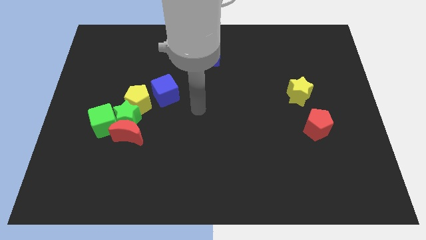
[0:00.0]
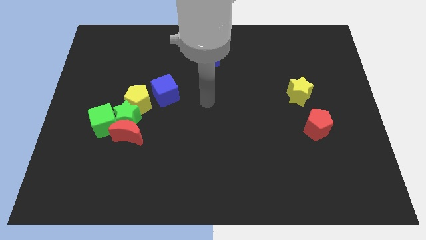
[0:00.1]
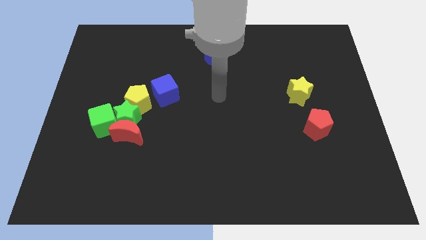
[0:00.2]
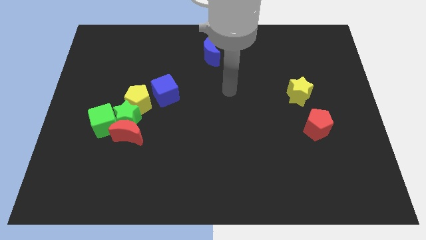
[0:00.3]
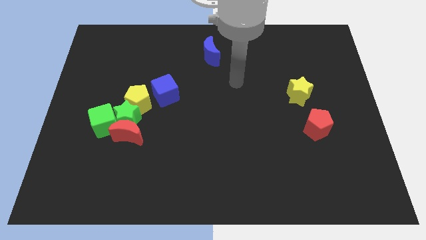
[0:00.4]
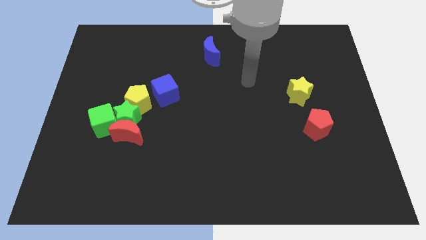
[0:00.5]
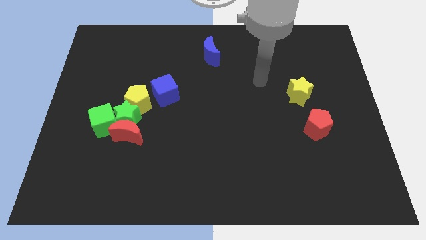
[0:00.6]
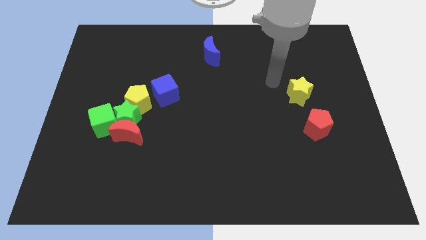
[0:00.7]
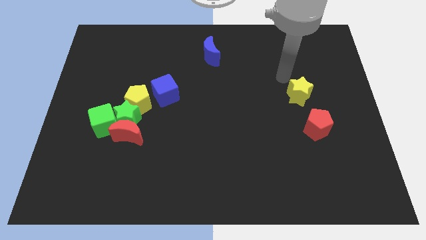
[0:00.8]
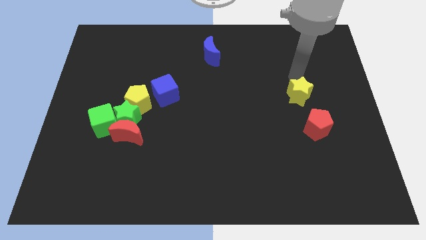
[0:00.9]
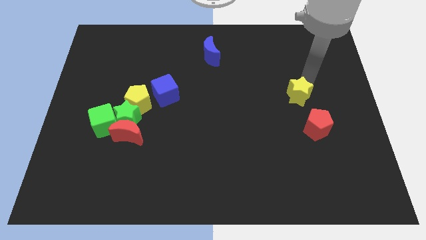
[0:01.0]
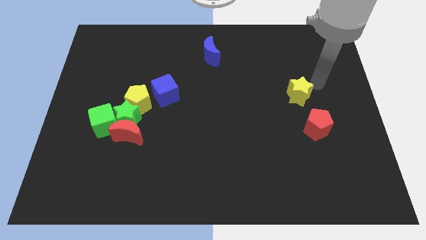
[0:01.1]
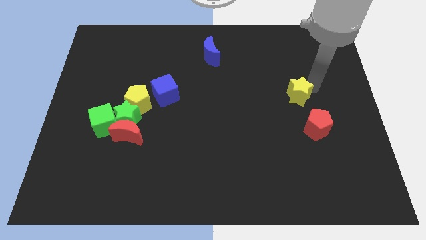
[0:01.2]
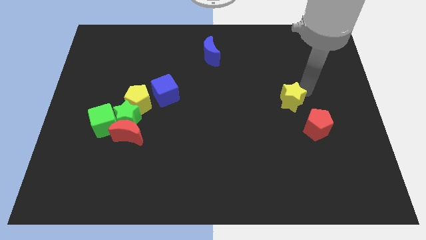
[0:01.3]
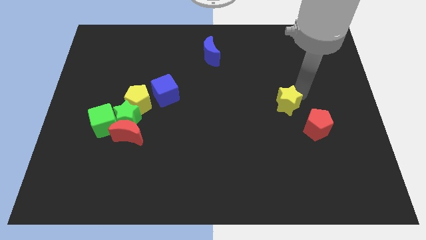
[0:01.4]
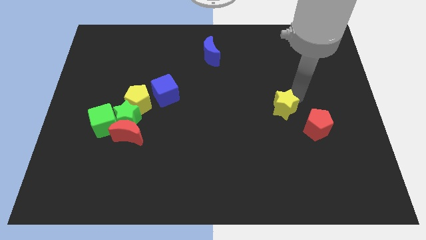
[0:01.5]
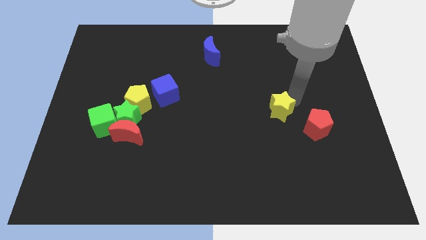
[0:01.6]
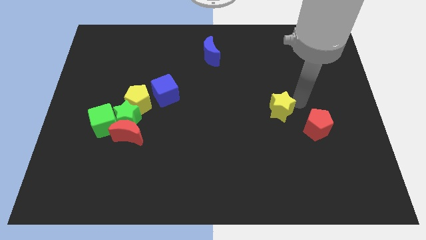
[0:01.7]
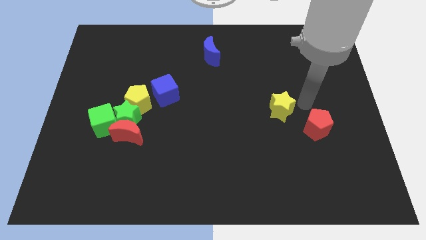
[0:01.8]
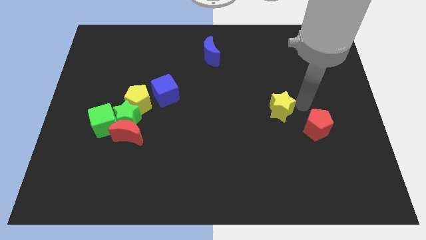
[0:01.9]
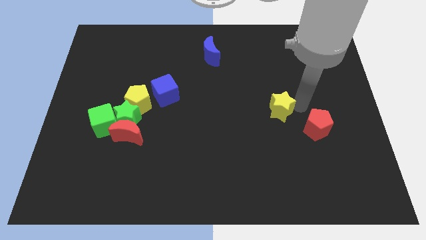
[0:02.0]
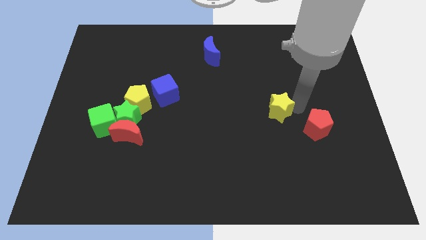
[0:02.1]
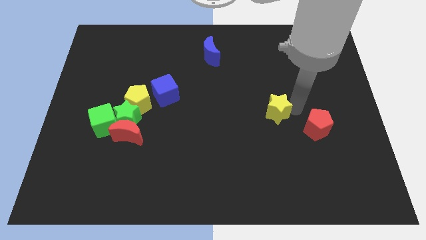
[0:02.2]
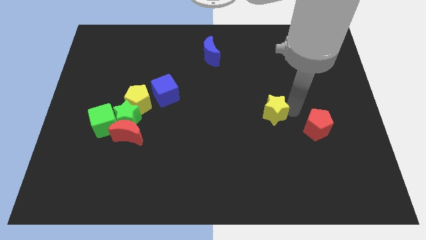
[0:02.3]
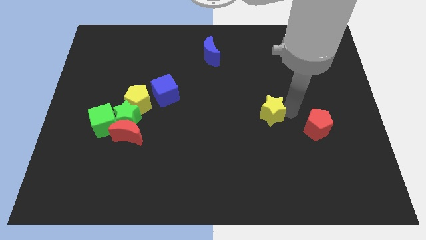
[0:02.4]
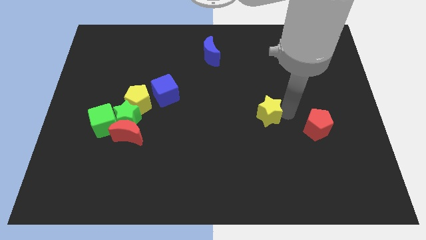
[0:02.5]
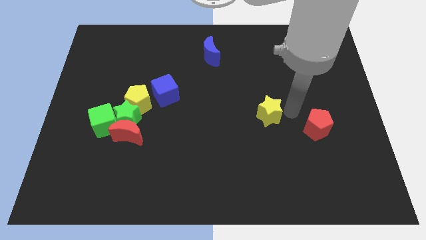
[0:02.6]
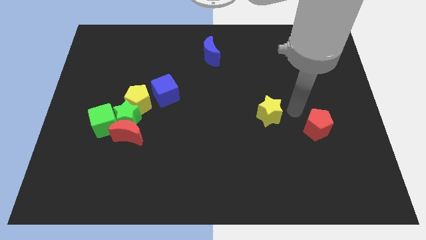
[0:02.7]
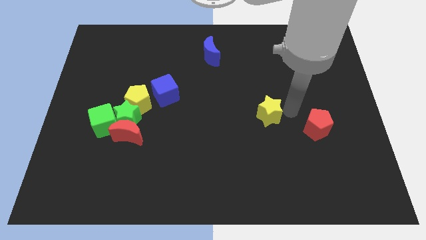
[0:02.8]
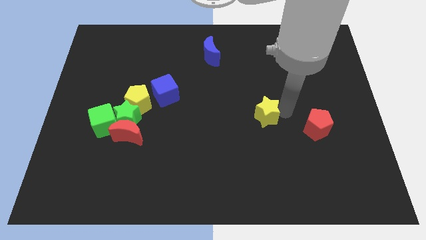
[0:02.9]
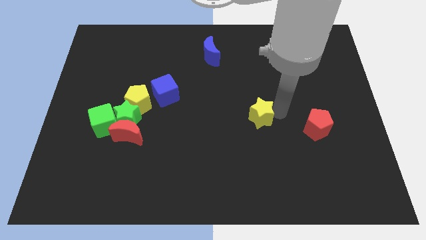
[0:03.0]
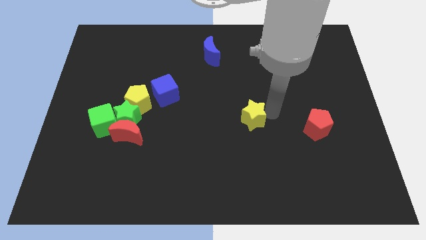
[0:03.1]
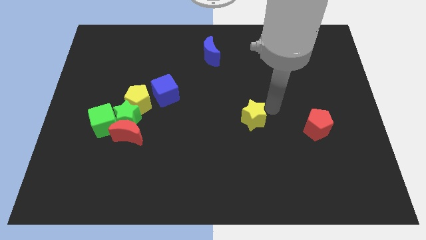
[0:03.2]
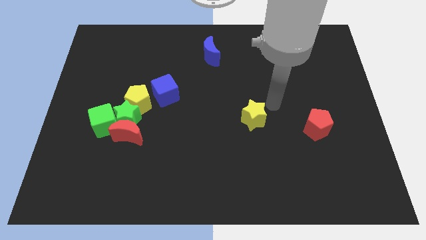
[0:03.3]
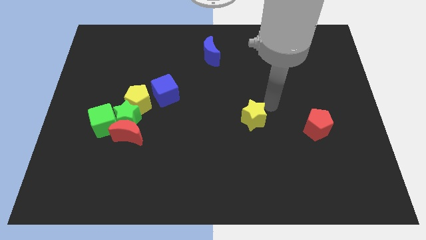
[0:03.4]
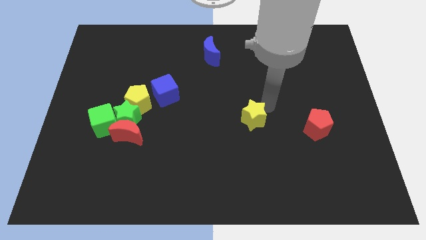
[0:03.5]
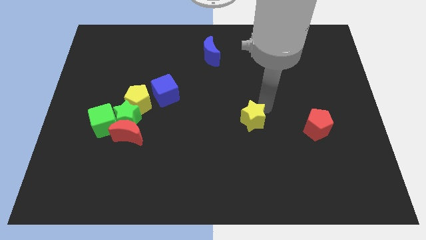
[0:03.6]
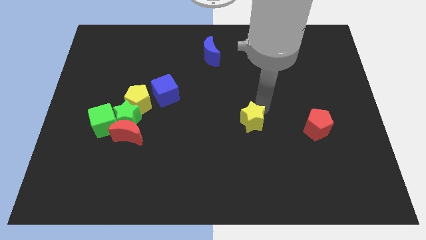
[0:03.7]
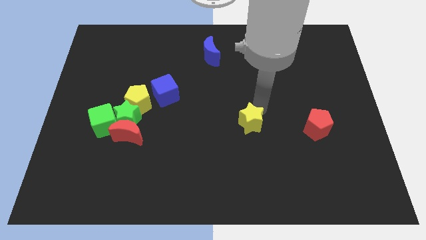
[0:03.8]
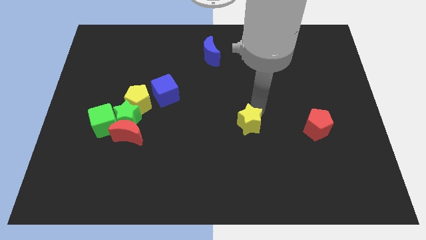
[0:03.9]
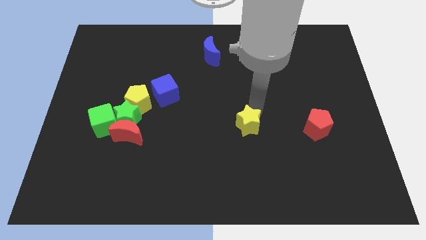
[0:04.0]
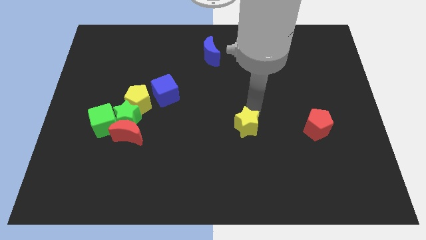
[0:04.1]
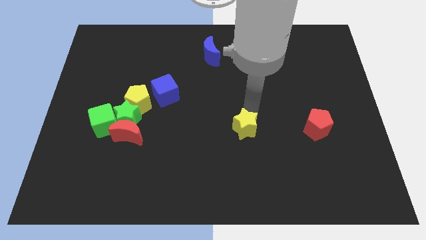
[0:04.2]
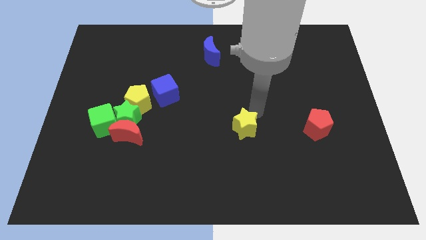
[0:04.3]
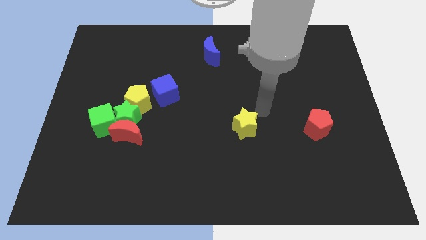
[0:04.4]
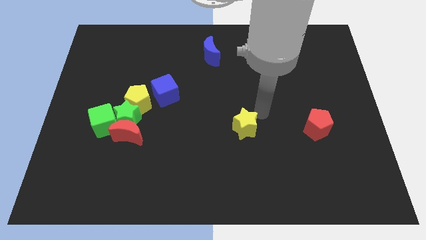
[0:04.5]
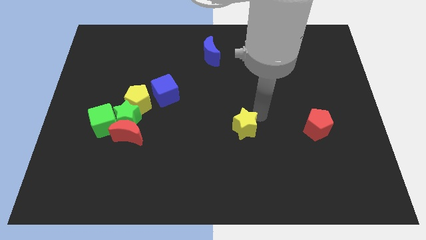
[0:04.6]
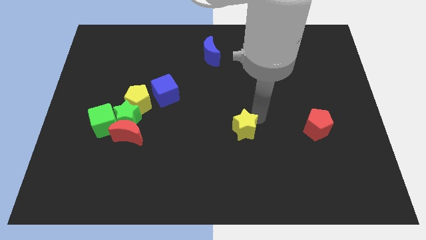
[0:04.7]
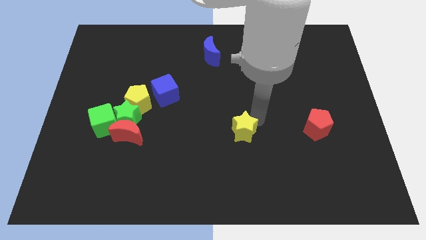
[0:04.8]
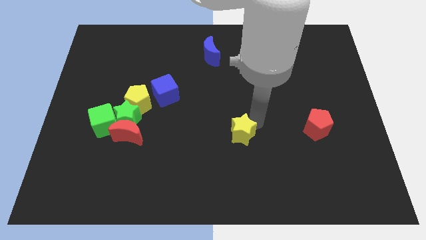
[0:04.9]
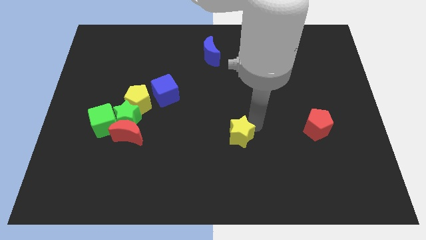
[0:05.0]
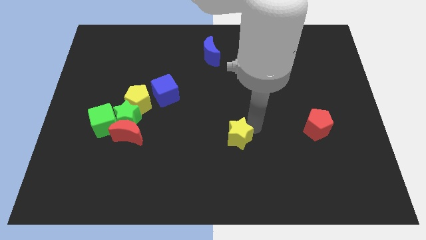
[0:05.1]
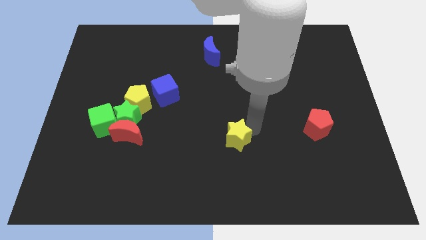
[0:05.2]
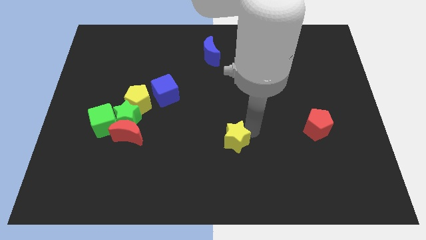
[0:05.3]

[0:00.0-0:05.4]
move the yellow star down and left

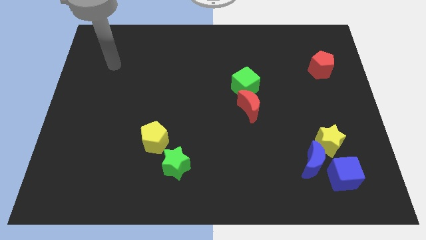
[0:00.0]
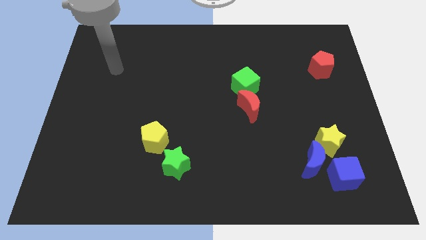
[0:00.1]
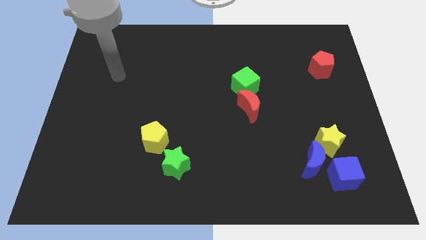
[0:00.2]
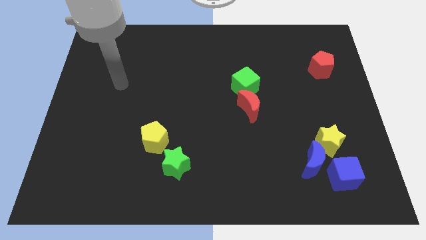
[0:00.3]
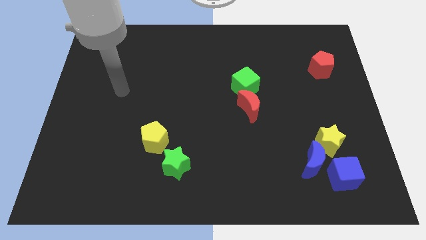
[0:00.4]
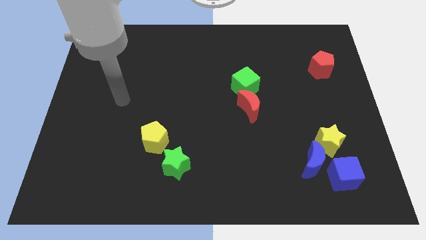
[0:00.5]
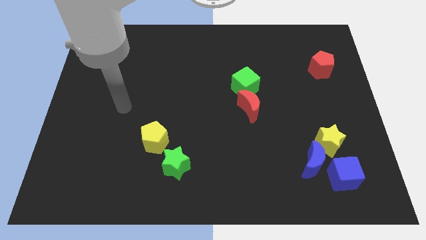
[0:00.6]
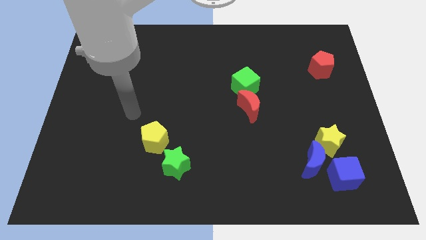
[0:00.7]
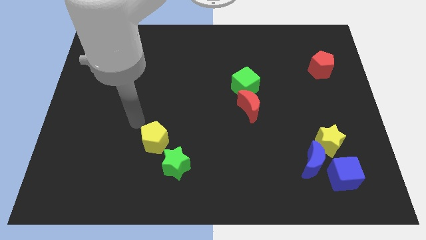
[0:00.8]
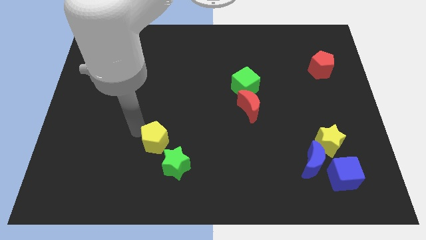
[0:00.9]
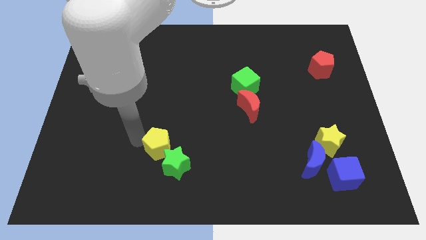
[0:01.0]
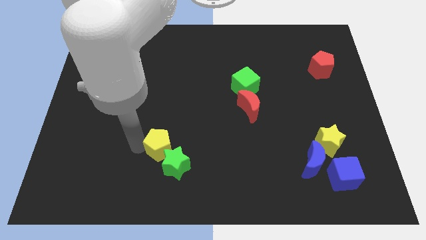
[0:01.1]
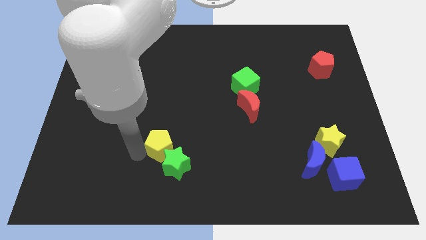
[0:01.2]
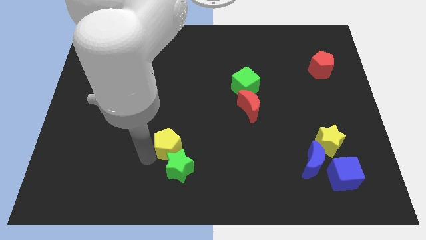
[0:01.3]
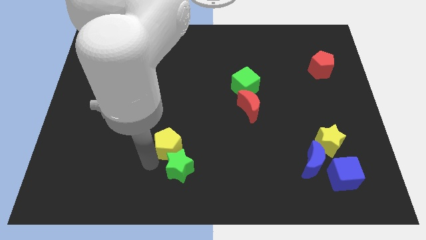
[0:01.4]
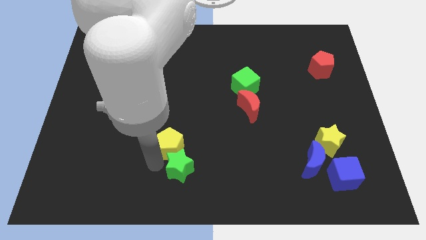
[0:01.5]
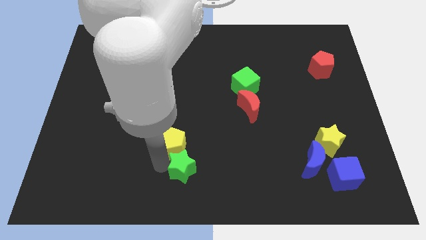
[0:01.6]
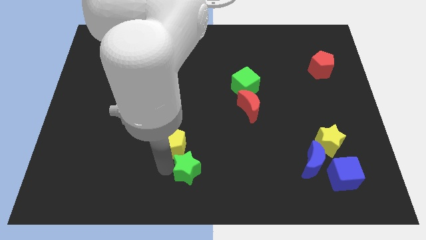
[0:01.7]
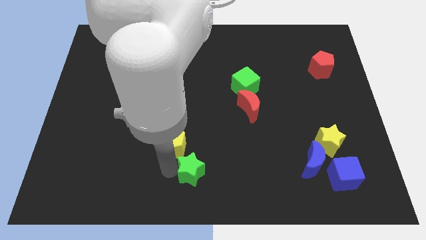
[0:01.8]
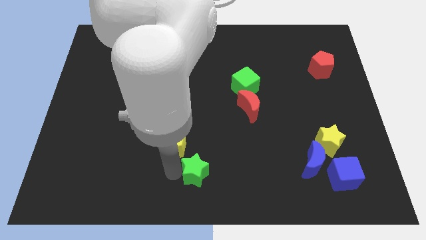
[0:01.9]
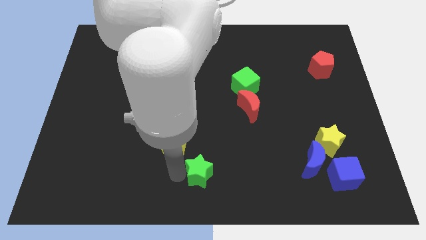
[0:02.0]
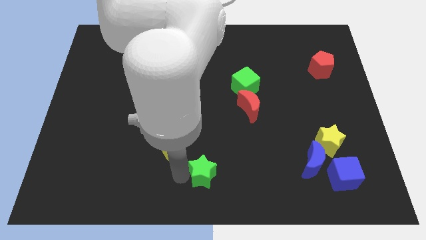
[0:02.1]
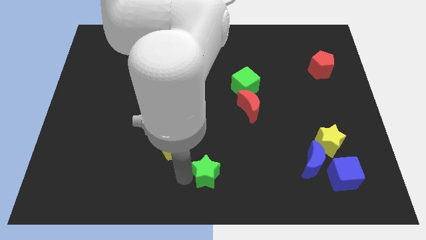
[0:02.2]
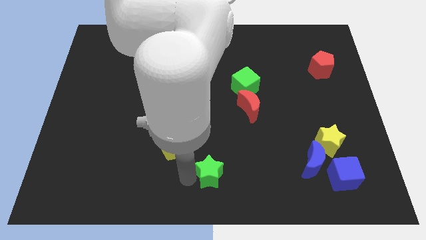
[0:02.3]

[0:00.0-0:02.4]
slightly move the green star right

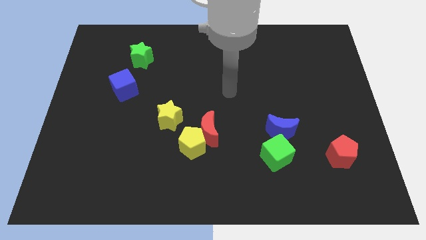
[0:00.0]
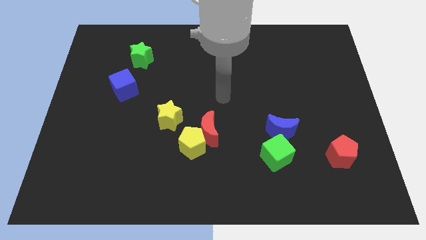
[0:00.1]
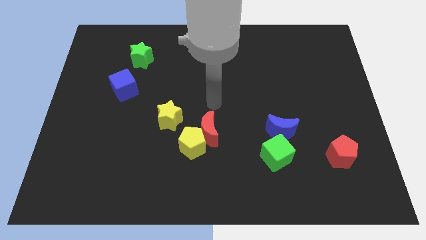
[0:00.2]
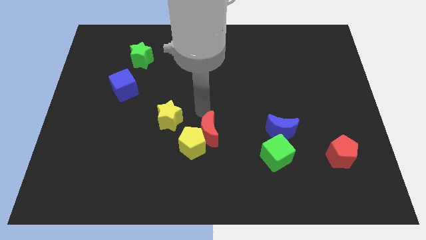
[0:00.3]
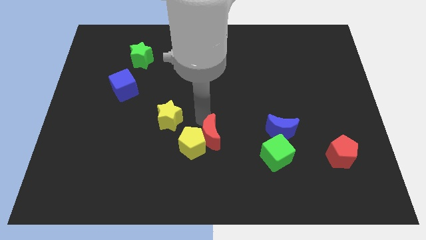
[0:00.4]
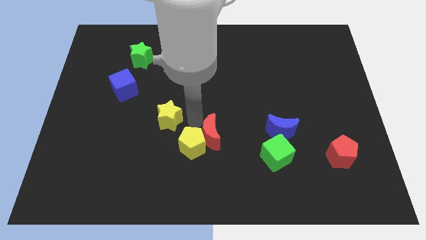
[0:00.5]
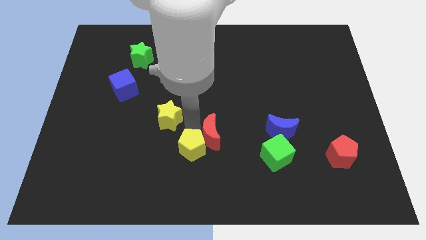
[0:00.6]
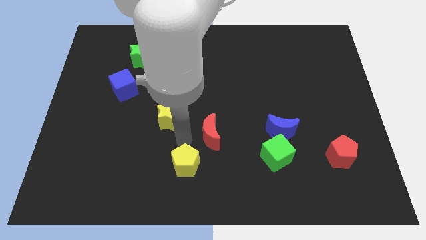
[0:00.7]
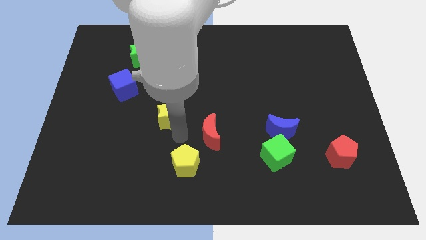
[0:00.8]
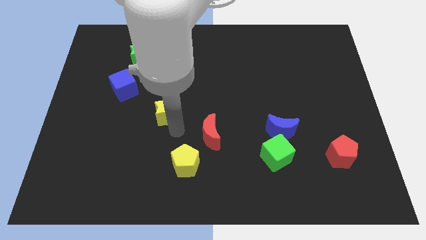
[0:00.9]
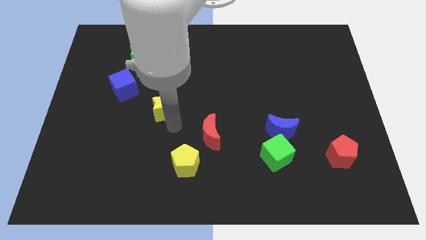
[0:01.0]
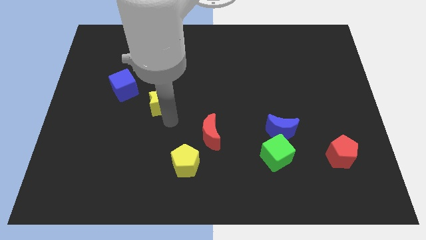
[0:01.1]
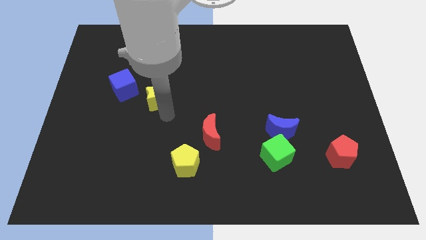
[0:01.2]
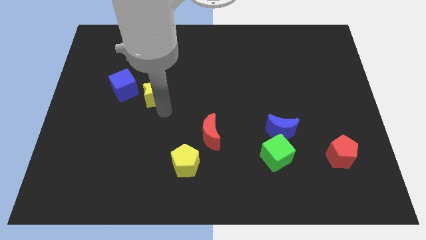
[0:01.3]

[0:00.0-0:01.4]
slide the yellow star somewhat upwards and to the left diagonally
